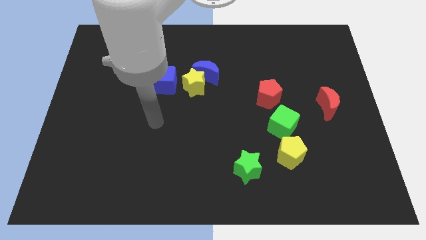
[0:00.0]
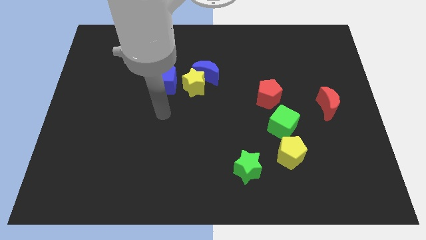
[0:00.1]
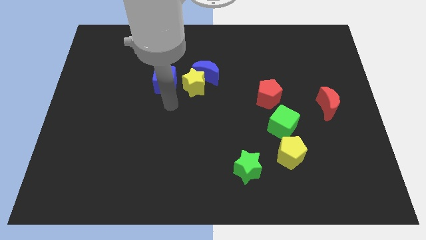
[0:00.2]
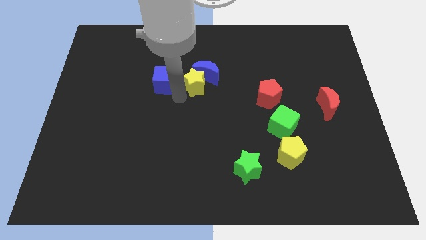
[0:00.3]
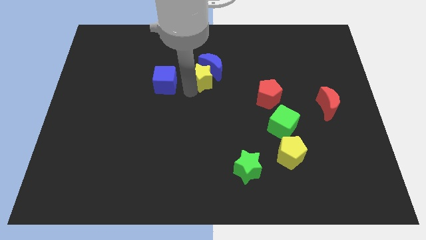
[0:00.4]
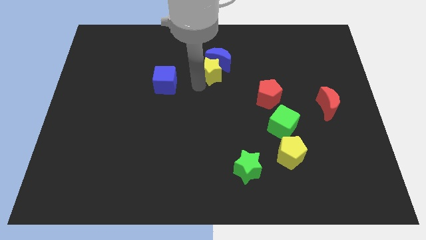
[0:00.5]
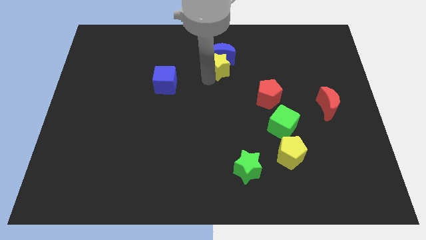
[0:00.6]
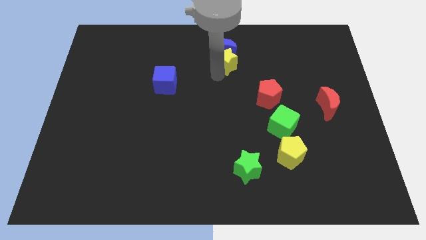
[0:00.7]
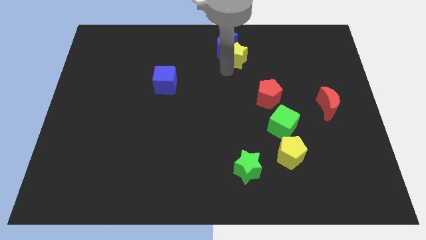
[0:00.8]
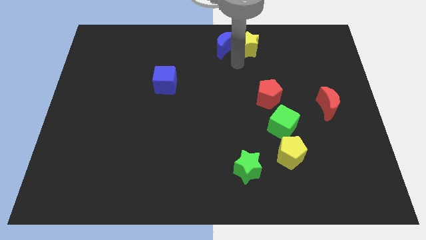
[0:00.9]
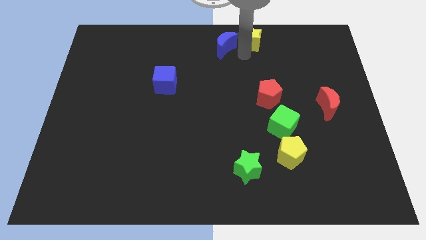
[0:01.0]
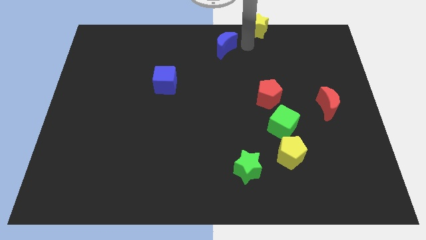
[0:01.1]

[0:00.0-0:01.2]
pull the blue moon apart from the yellow star

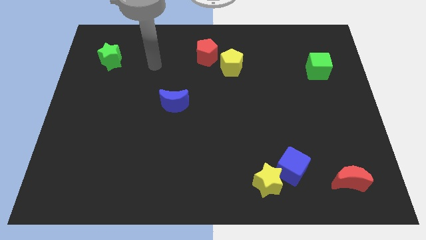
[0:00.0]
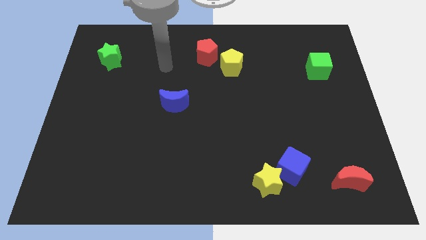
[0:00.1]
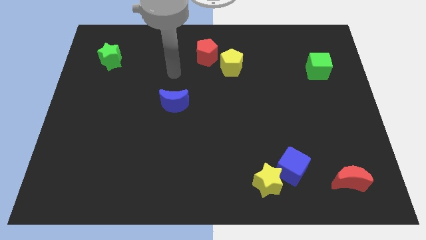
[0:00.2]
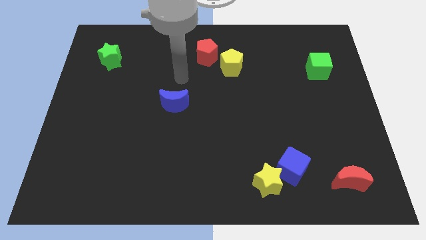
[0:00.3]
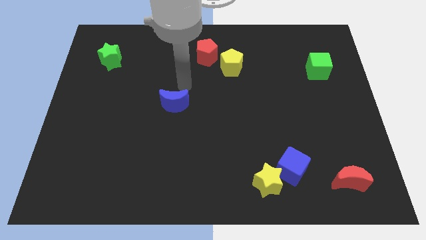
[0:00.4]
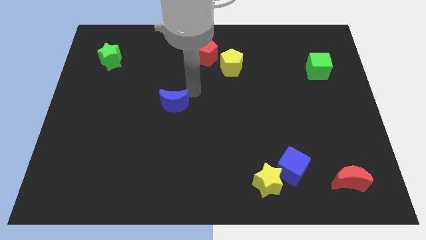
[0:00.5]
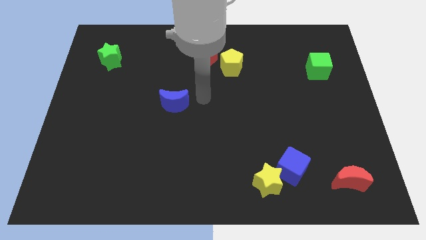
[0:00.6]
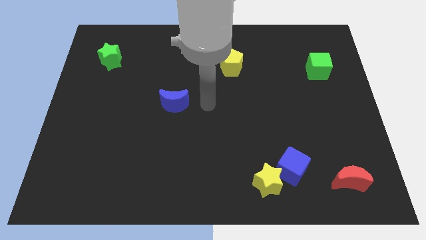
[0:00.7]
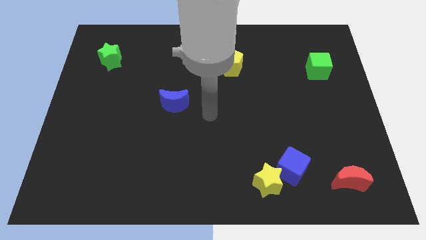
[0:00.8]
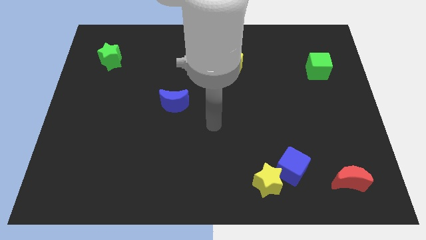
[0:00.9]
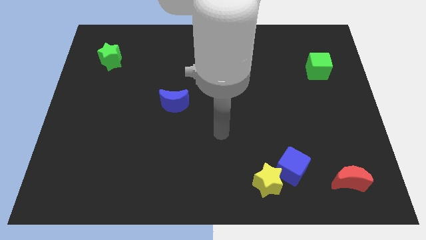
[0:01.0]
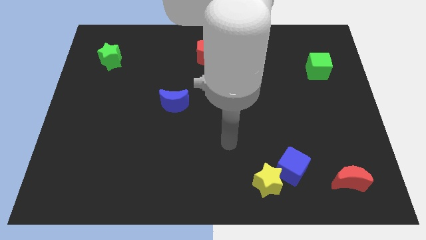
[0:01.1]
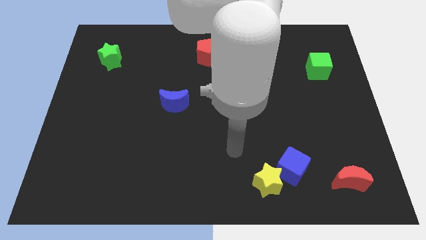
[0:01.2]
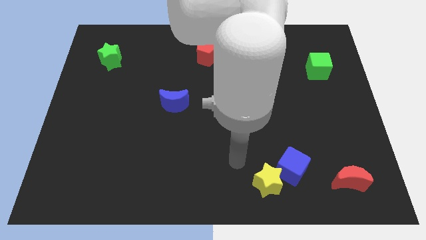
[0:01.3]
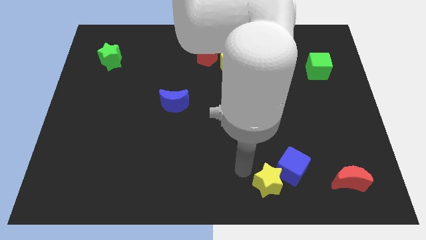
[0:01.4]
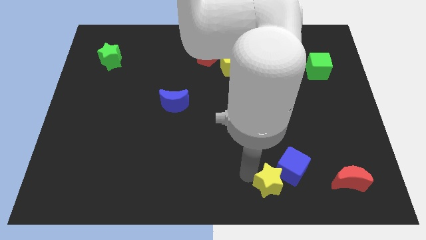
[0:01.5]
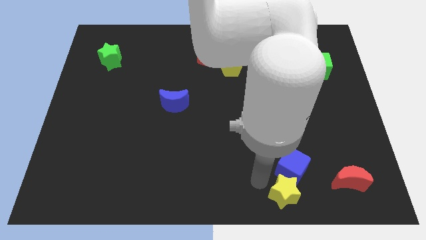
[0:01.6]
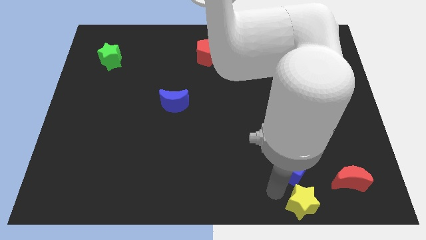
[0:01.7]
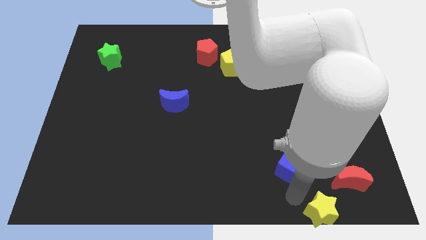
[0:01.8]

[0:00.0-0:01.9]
separate the blue cube from the yellow star

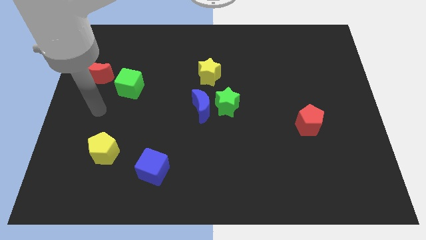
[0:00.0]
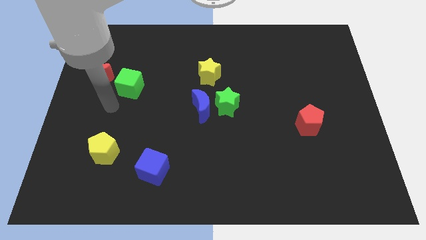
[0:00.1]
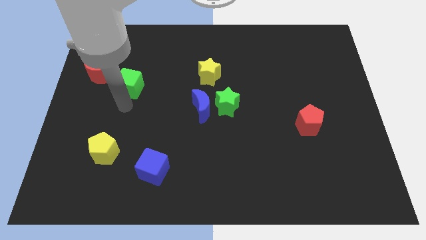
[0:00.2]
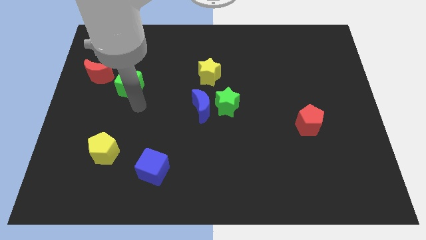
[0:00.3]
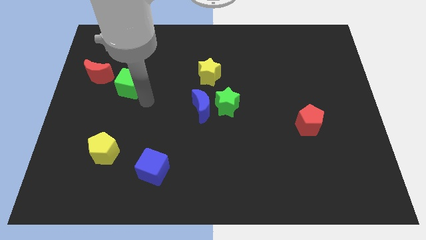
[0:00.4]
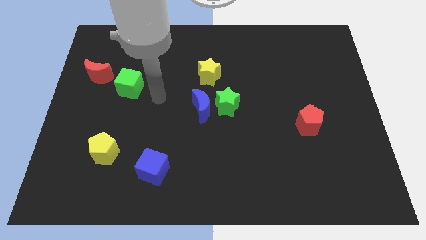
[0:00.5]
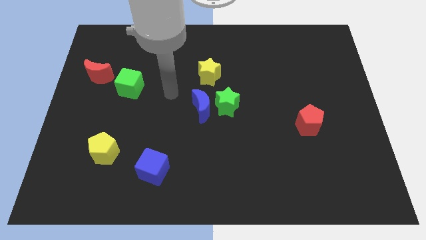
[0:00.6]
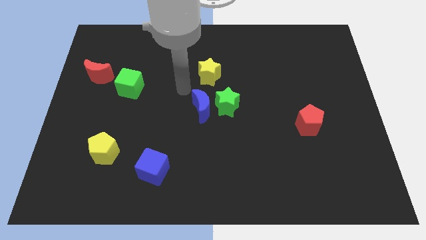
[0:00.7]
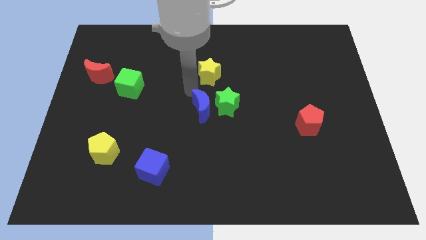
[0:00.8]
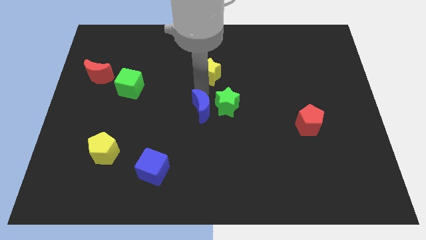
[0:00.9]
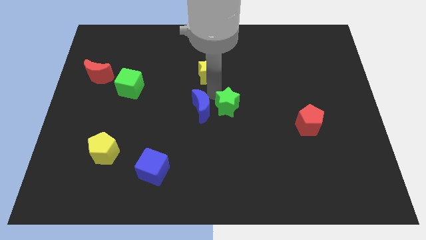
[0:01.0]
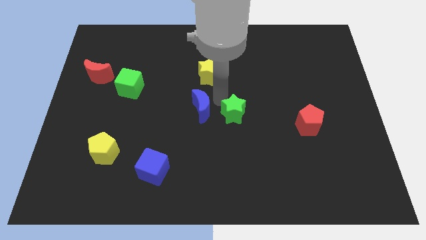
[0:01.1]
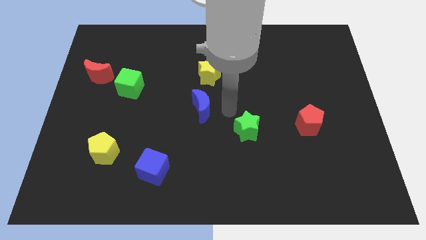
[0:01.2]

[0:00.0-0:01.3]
move the blue moon away from the green star

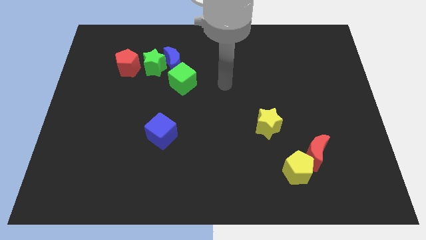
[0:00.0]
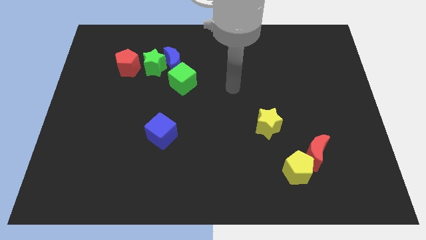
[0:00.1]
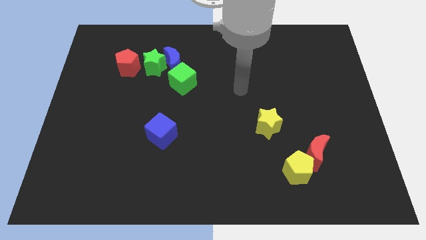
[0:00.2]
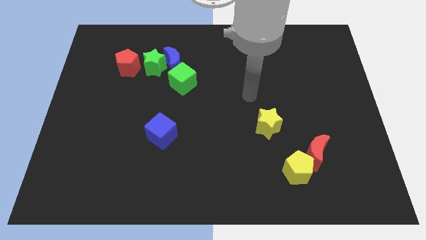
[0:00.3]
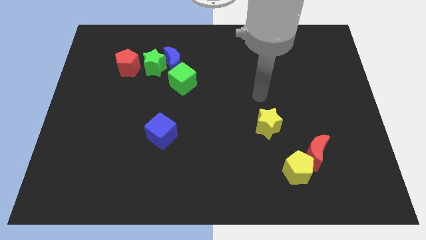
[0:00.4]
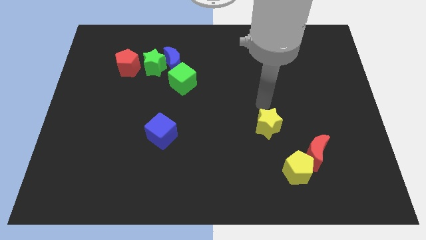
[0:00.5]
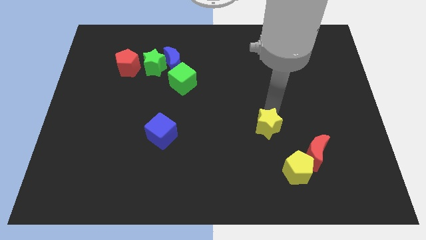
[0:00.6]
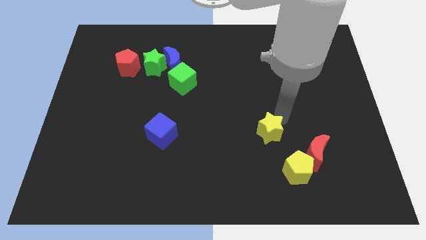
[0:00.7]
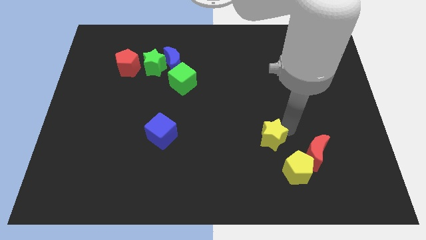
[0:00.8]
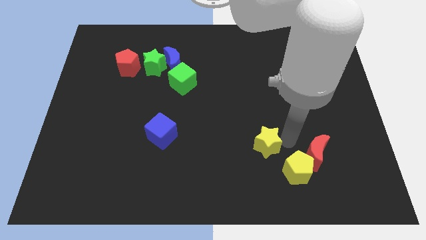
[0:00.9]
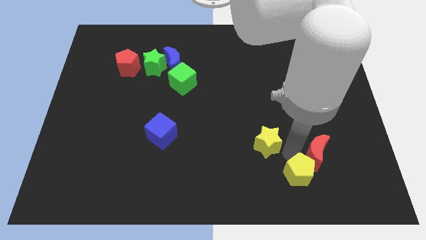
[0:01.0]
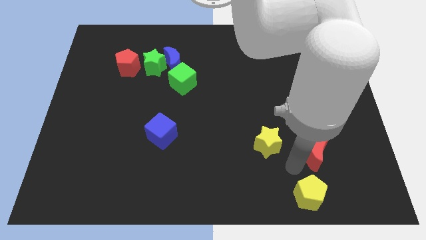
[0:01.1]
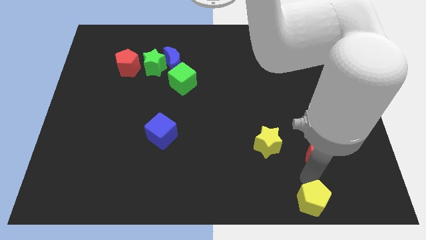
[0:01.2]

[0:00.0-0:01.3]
separate the red moon from the yellow pentagon

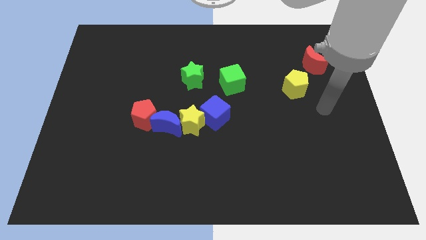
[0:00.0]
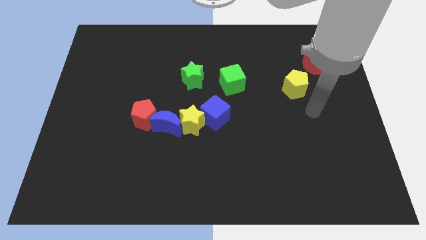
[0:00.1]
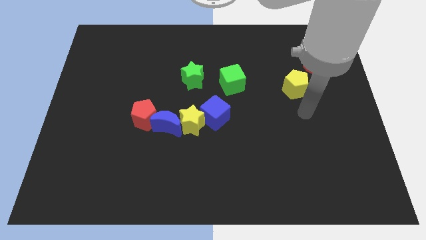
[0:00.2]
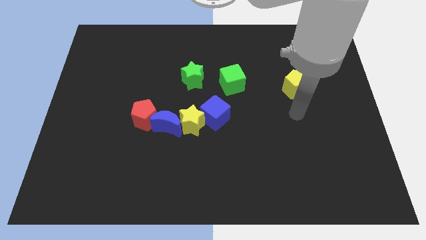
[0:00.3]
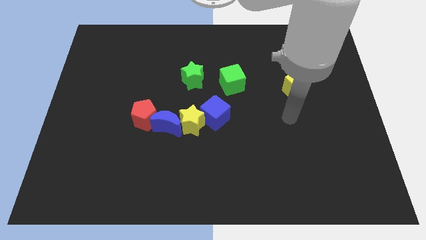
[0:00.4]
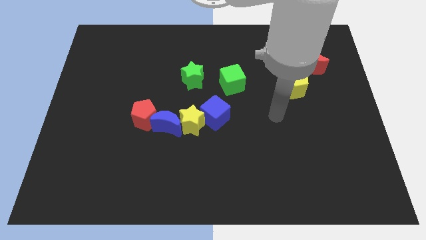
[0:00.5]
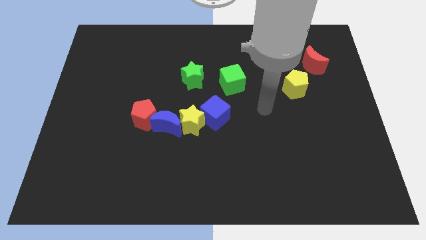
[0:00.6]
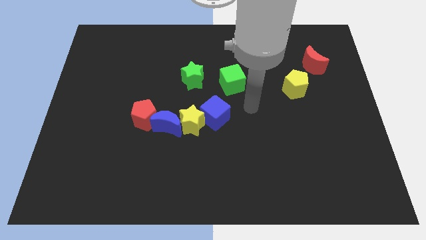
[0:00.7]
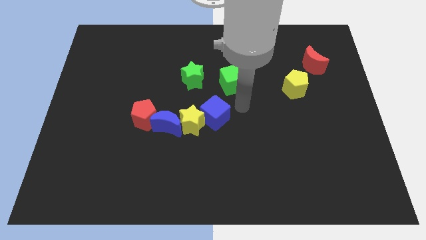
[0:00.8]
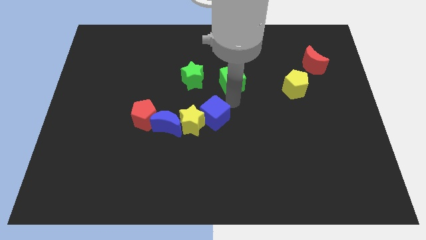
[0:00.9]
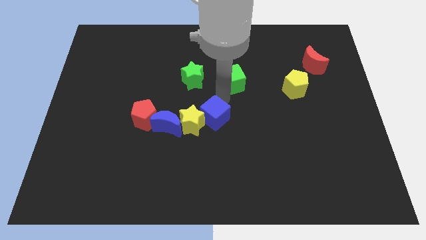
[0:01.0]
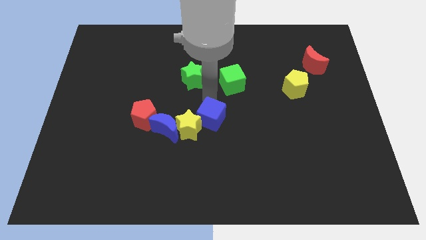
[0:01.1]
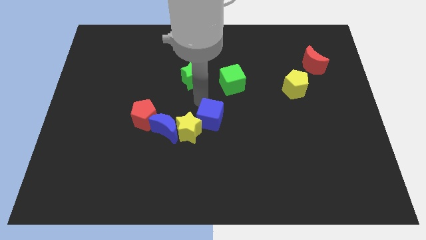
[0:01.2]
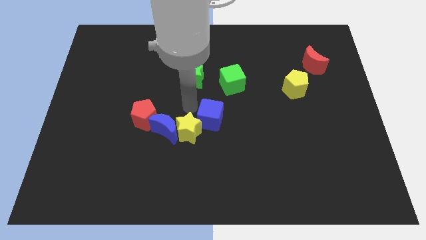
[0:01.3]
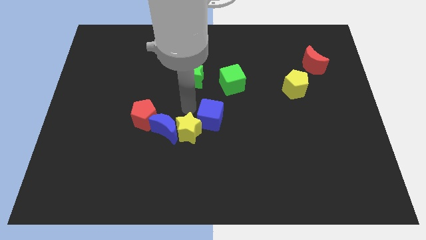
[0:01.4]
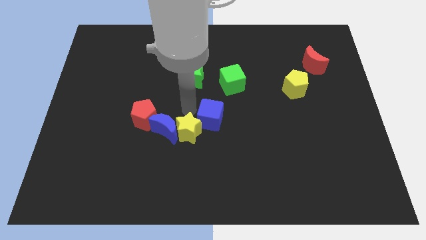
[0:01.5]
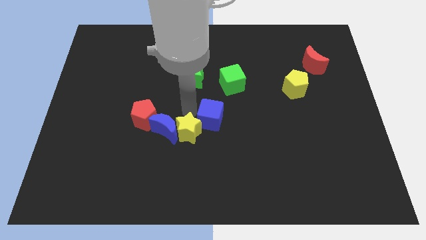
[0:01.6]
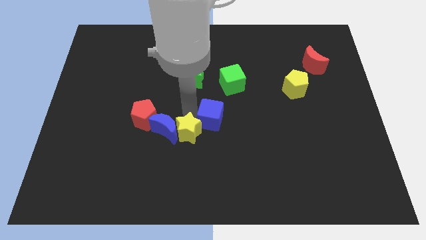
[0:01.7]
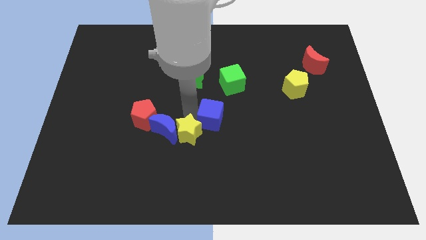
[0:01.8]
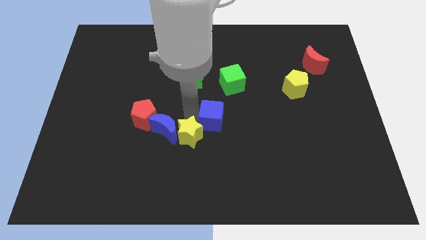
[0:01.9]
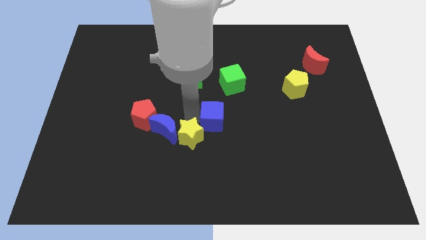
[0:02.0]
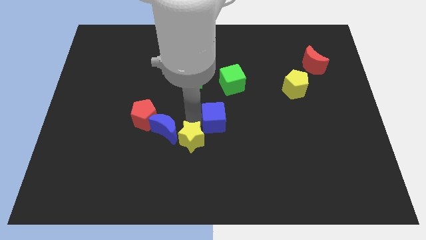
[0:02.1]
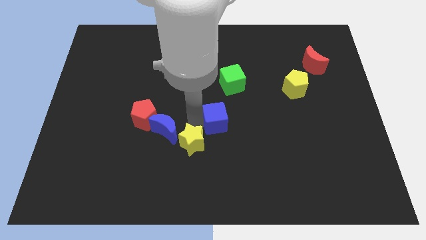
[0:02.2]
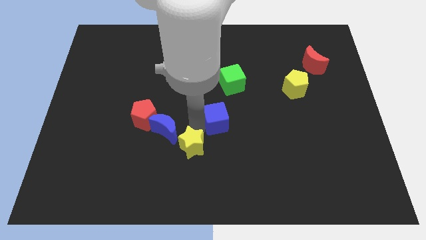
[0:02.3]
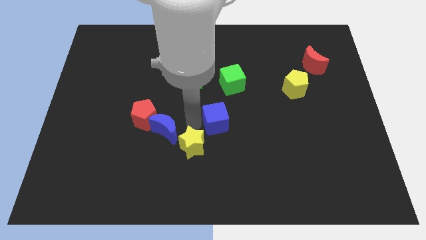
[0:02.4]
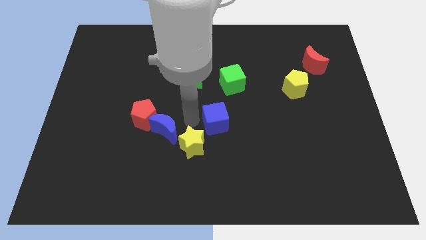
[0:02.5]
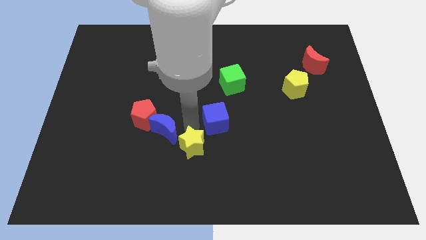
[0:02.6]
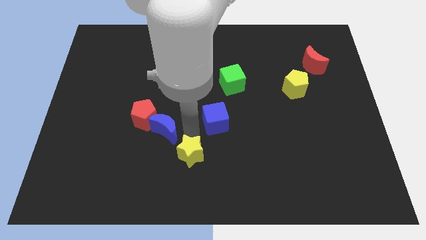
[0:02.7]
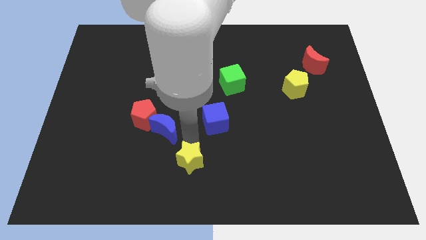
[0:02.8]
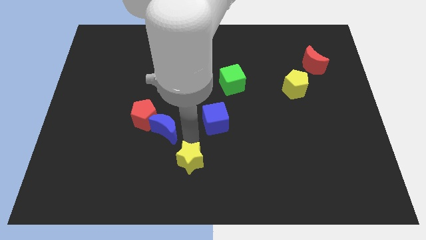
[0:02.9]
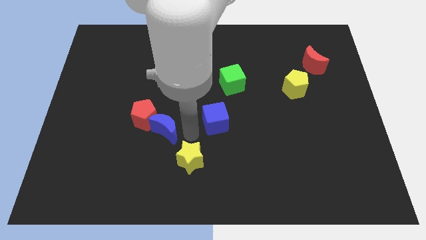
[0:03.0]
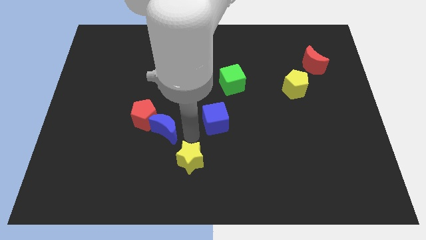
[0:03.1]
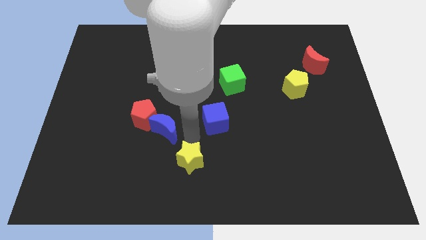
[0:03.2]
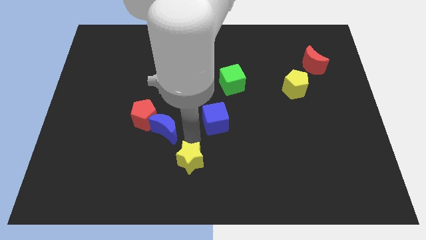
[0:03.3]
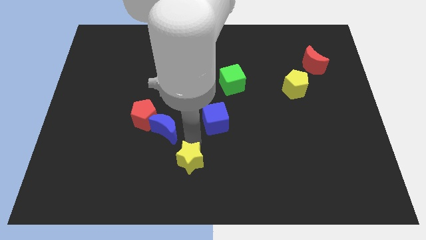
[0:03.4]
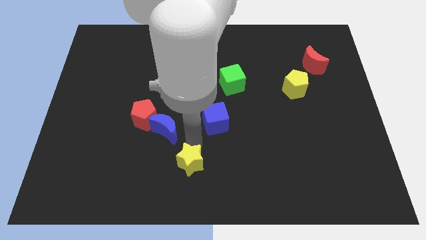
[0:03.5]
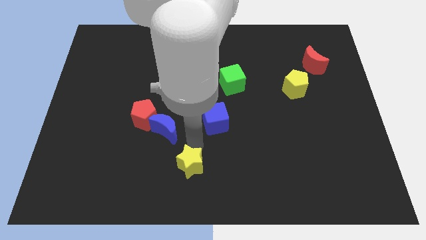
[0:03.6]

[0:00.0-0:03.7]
separate the yellow star from the blue moon and blue cube
